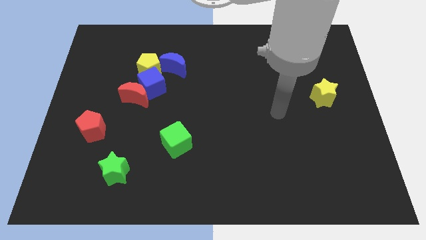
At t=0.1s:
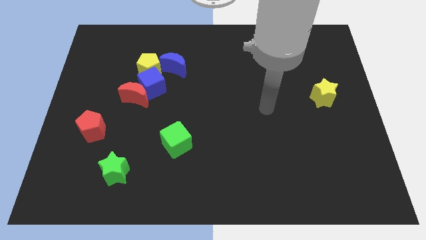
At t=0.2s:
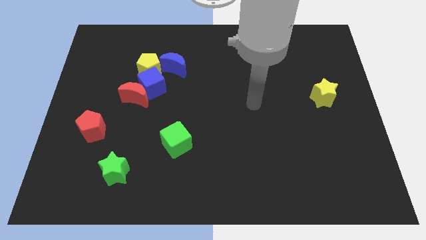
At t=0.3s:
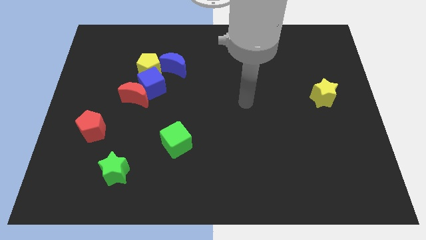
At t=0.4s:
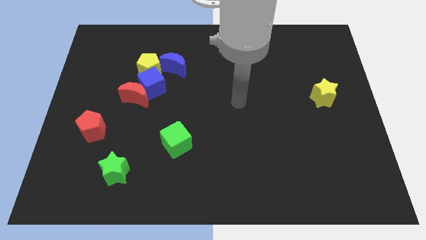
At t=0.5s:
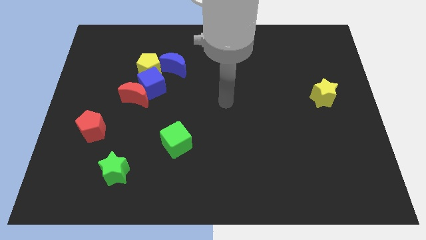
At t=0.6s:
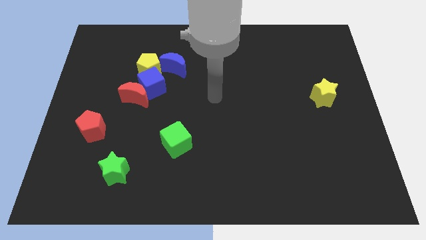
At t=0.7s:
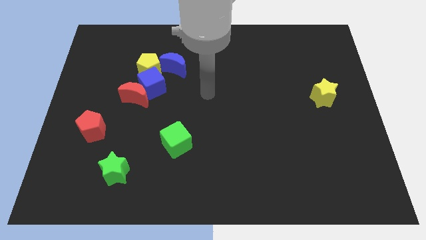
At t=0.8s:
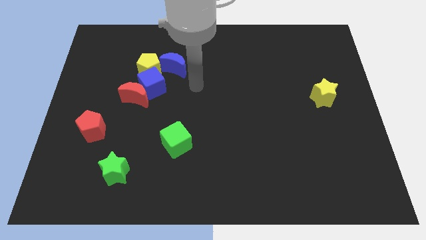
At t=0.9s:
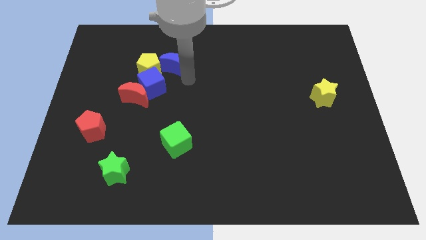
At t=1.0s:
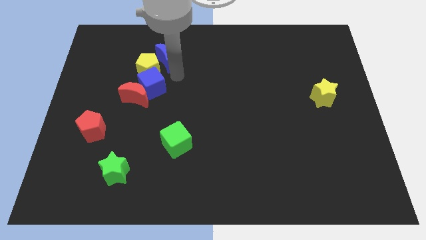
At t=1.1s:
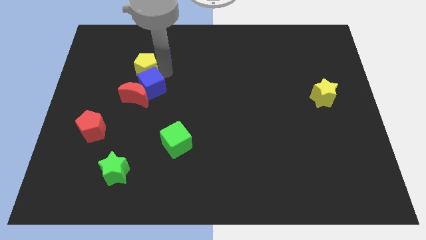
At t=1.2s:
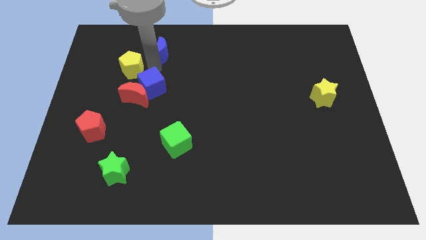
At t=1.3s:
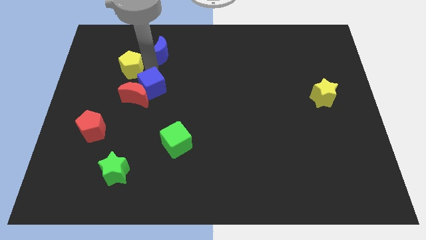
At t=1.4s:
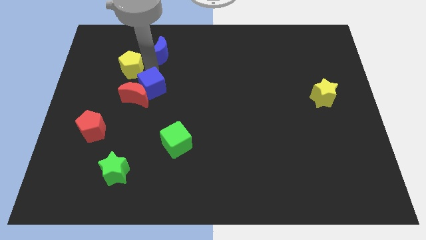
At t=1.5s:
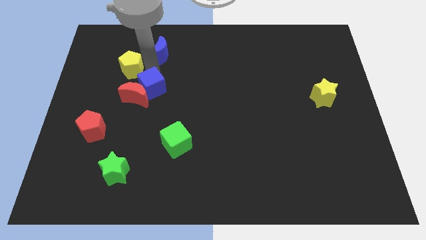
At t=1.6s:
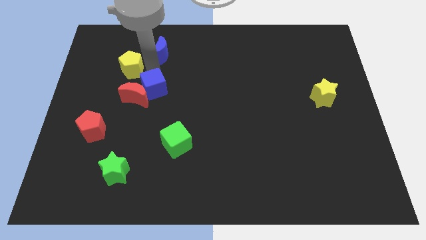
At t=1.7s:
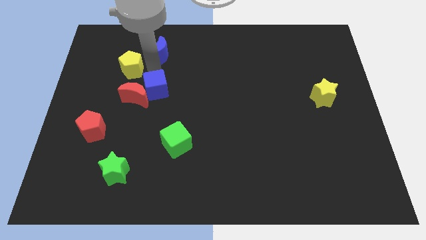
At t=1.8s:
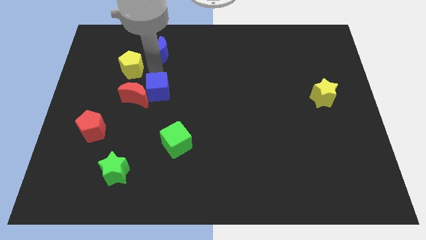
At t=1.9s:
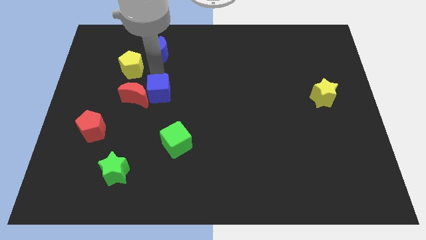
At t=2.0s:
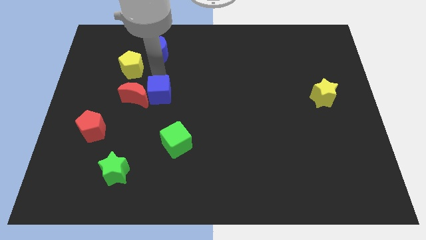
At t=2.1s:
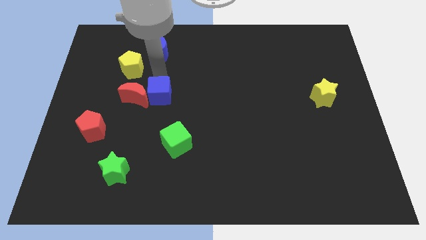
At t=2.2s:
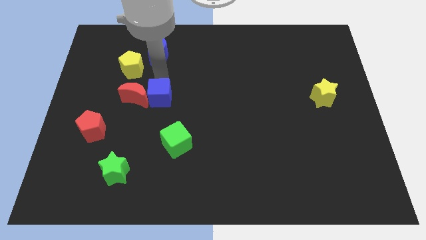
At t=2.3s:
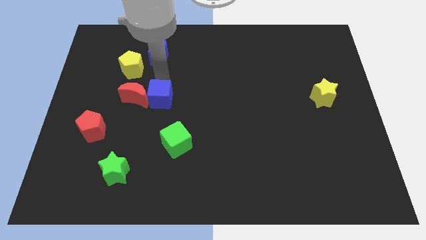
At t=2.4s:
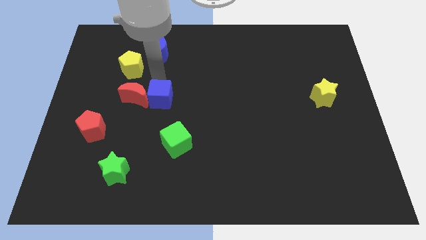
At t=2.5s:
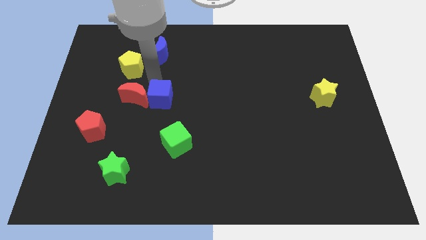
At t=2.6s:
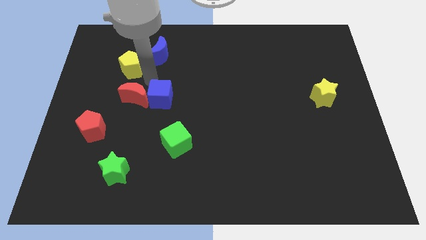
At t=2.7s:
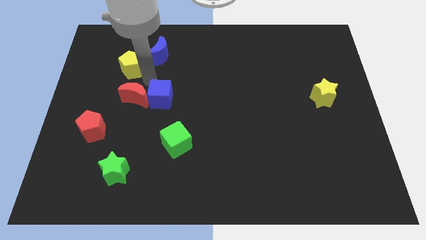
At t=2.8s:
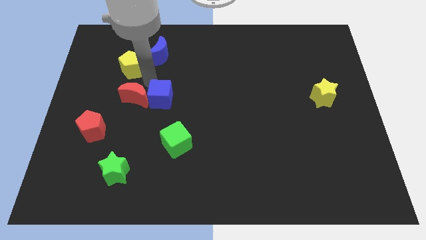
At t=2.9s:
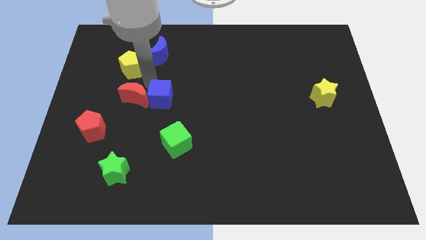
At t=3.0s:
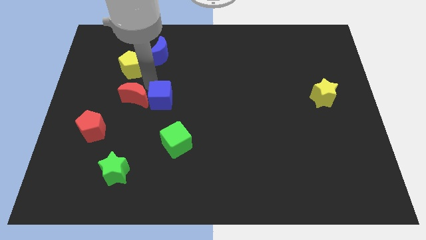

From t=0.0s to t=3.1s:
separate the blue cube from the clump

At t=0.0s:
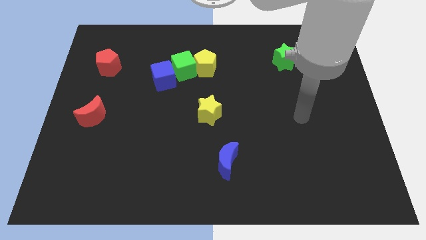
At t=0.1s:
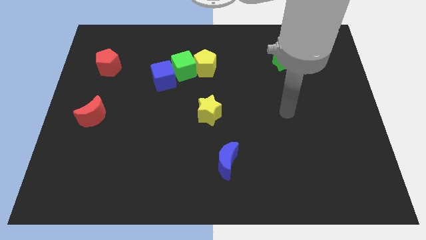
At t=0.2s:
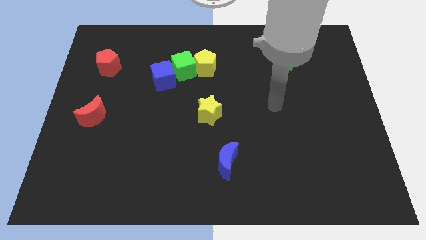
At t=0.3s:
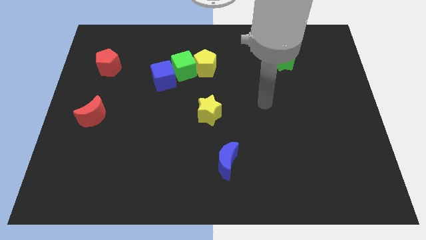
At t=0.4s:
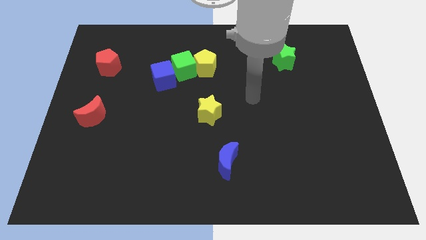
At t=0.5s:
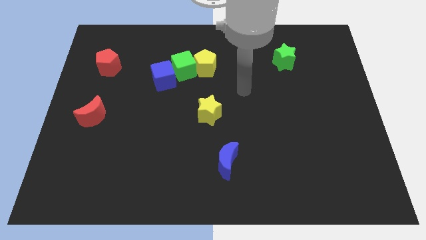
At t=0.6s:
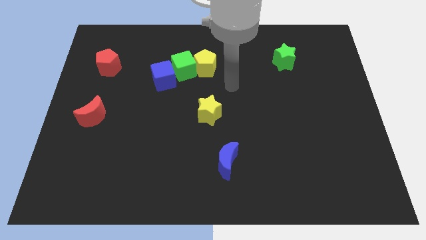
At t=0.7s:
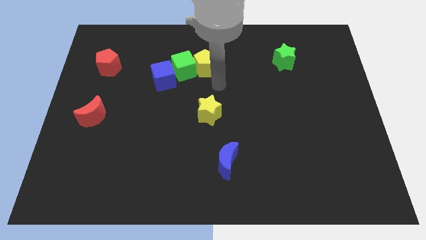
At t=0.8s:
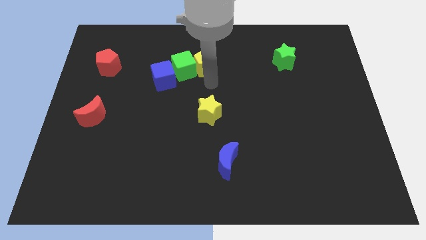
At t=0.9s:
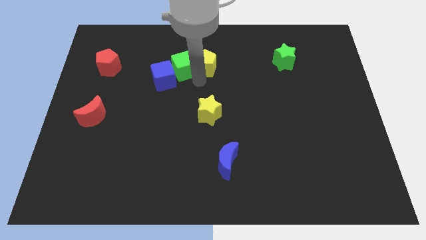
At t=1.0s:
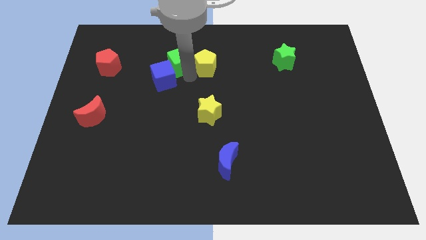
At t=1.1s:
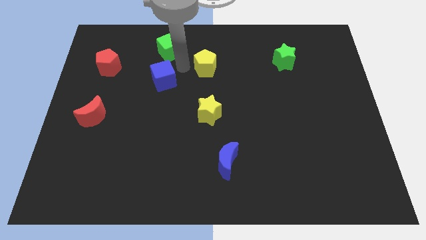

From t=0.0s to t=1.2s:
separate the yellow pentagon from the green cube

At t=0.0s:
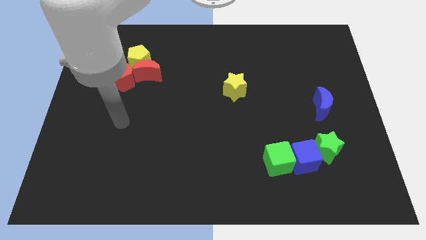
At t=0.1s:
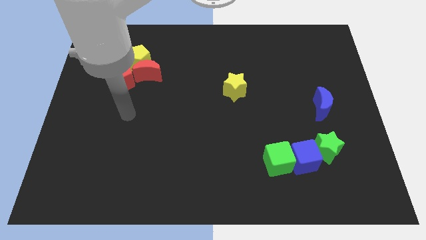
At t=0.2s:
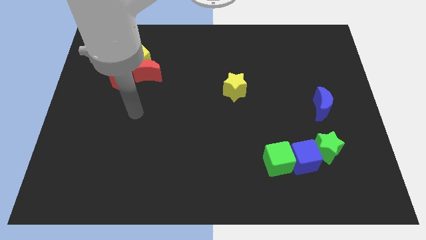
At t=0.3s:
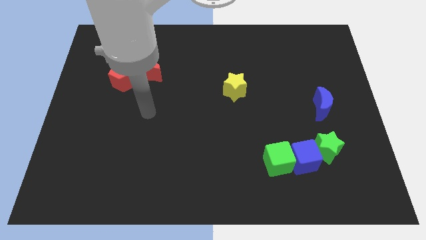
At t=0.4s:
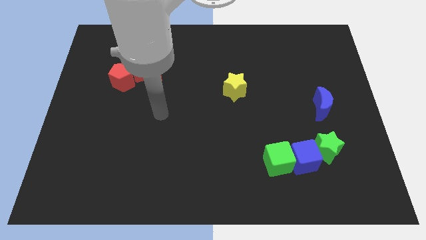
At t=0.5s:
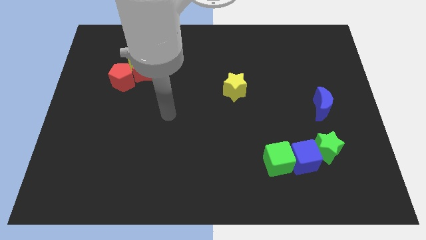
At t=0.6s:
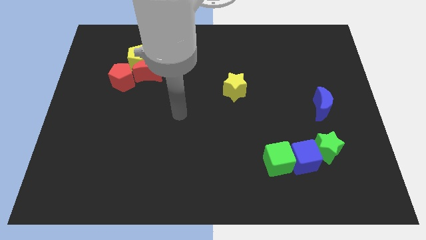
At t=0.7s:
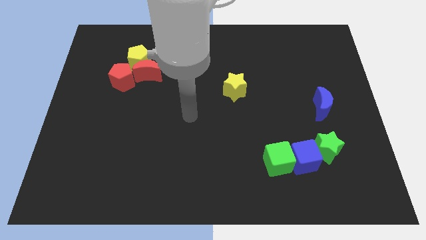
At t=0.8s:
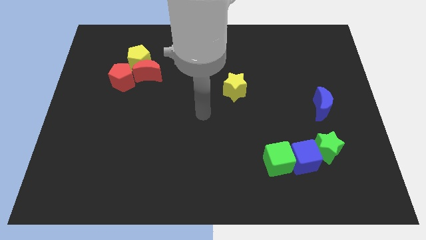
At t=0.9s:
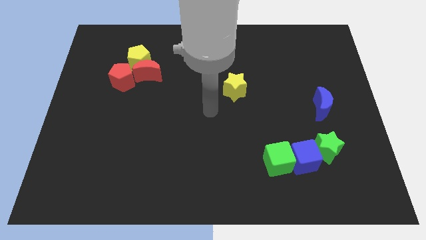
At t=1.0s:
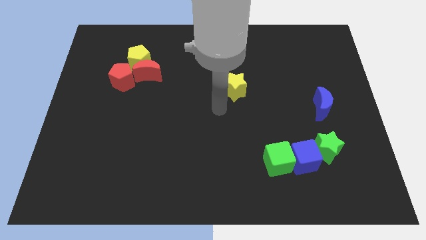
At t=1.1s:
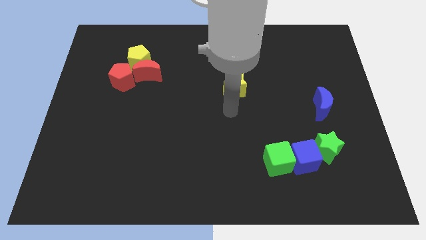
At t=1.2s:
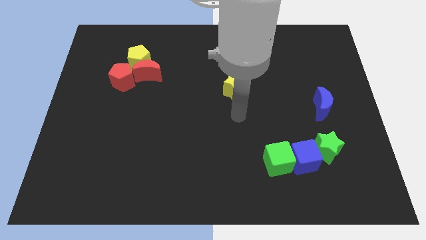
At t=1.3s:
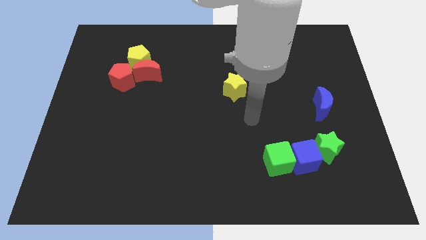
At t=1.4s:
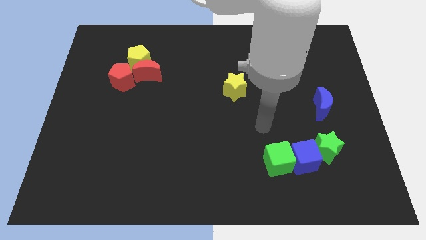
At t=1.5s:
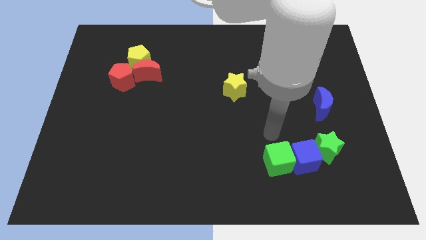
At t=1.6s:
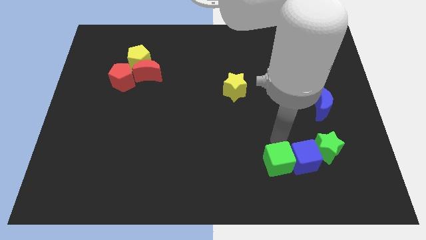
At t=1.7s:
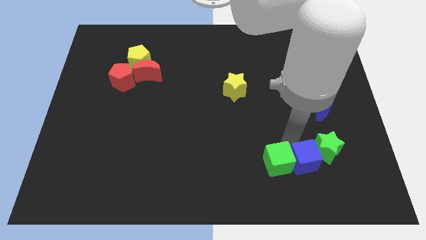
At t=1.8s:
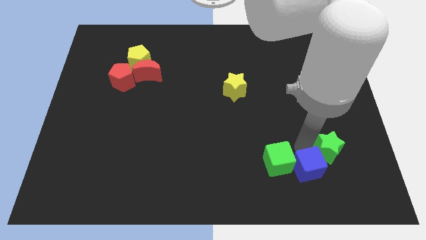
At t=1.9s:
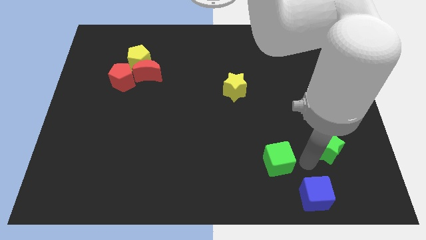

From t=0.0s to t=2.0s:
move the green cube away from the blue cube

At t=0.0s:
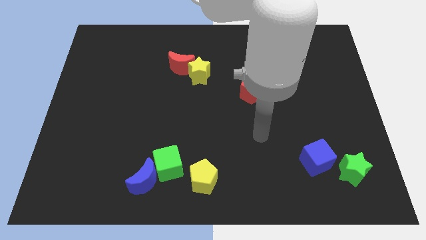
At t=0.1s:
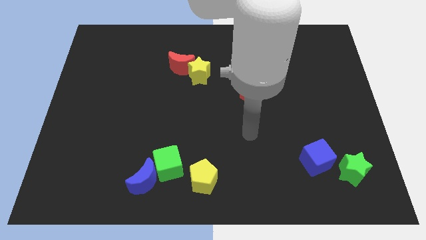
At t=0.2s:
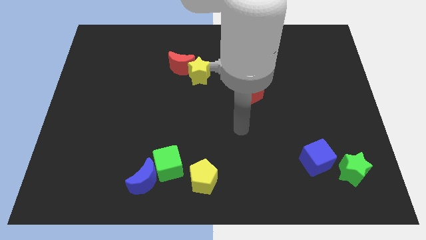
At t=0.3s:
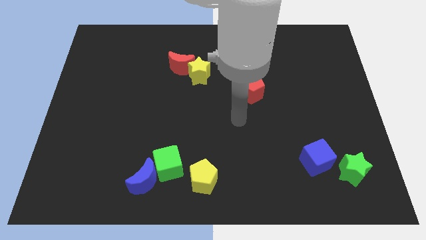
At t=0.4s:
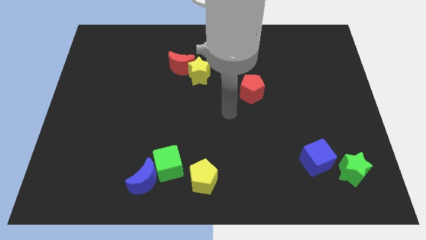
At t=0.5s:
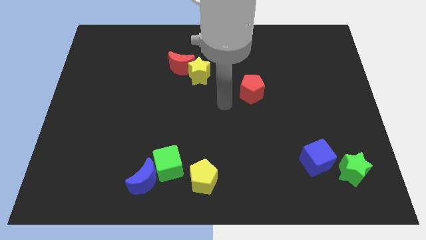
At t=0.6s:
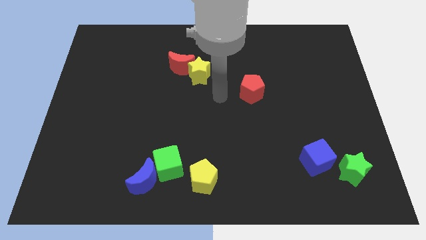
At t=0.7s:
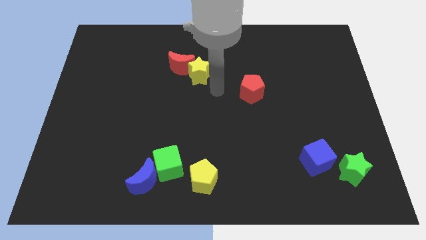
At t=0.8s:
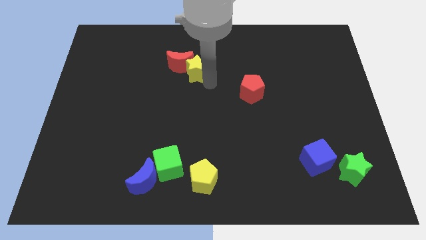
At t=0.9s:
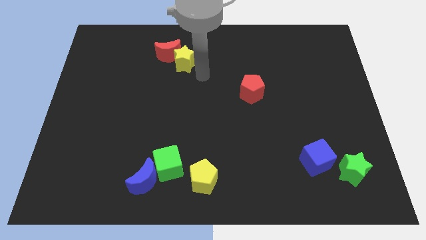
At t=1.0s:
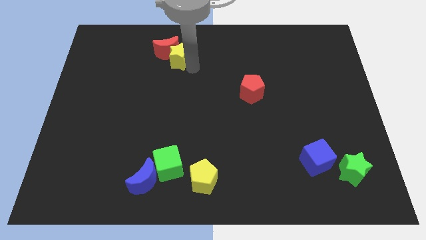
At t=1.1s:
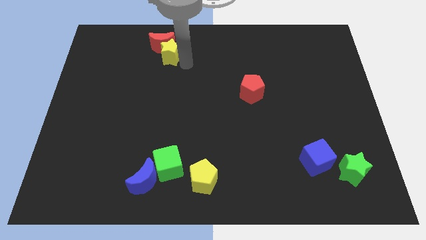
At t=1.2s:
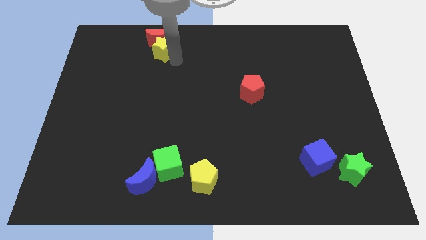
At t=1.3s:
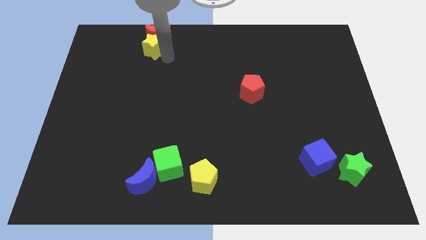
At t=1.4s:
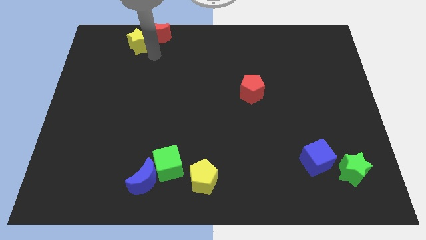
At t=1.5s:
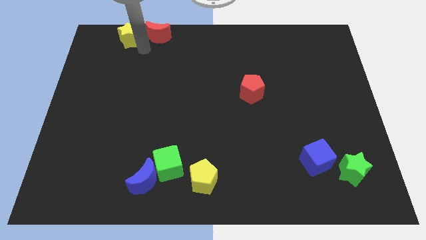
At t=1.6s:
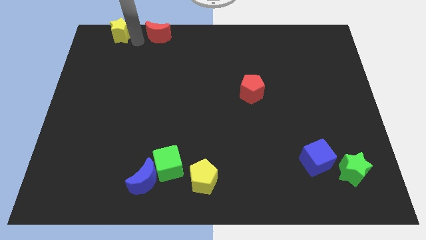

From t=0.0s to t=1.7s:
pull the red moon apart from the yellow star

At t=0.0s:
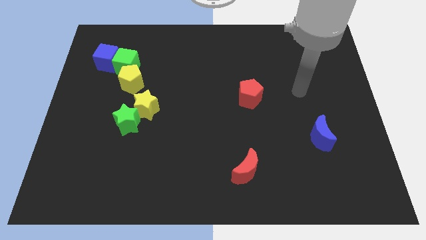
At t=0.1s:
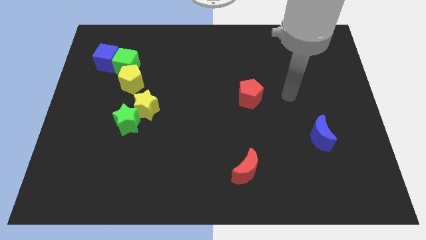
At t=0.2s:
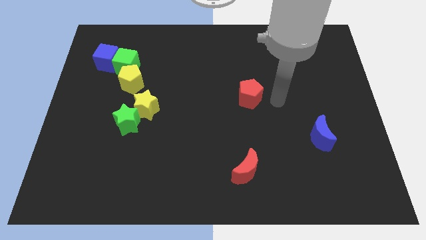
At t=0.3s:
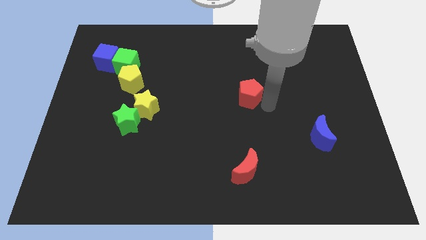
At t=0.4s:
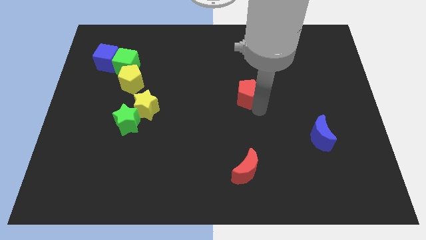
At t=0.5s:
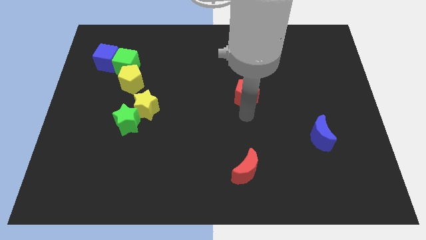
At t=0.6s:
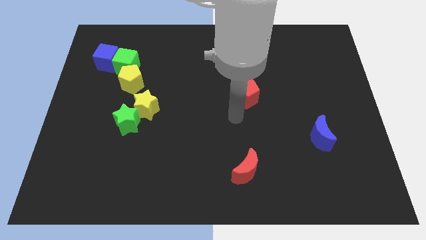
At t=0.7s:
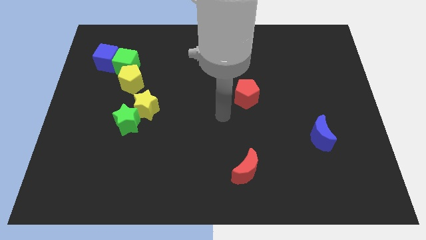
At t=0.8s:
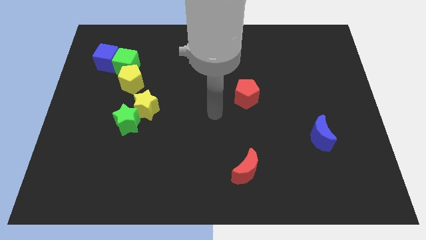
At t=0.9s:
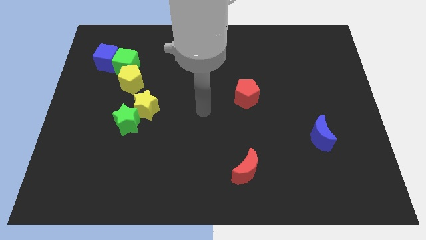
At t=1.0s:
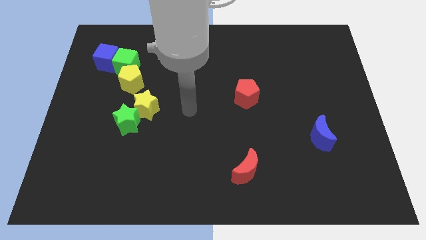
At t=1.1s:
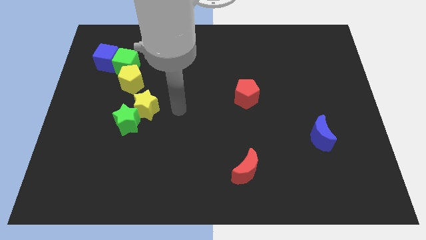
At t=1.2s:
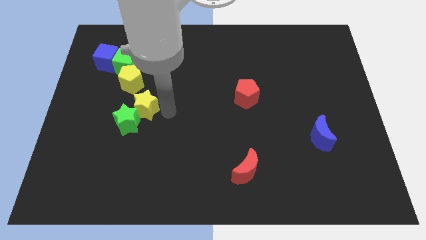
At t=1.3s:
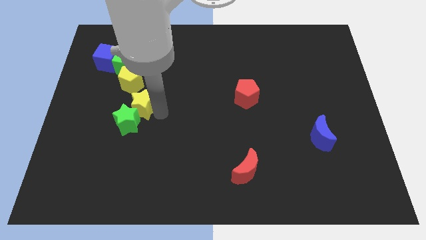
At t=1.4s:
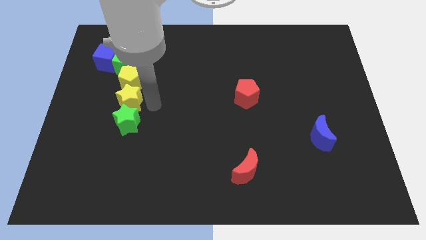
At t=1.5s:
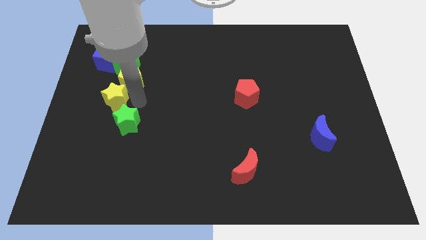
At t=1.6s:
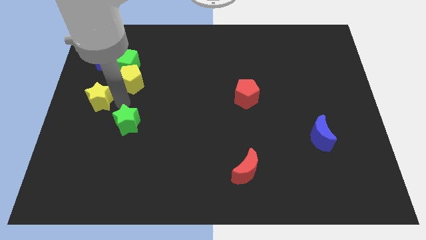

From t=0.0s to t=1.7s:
move the green star away from the yellow star
